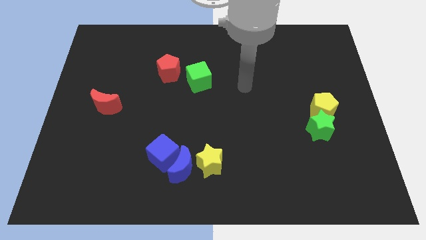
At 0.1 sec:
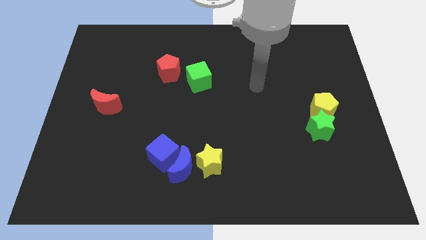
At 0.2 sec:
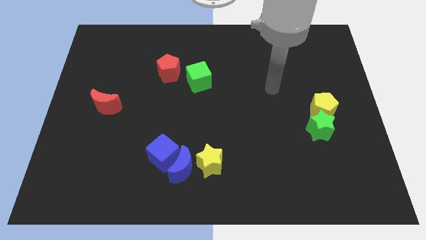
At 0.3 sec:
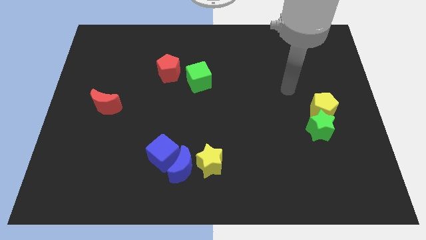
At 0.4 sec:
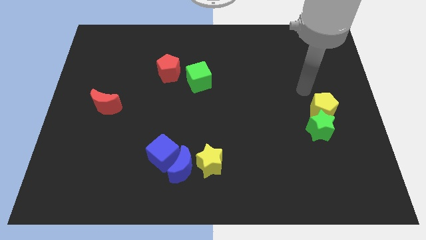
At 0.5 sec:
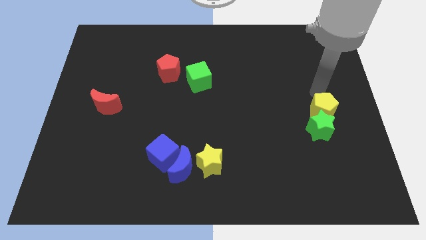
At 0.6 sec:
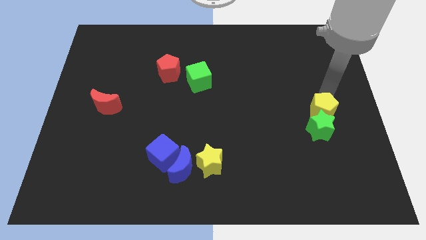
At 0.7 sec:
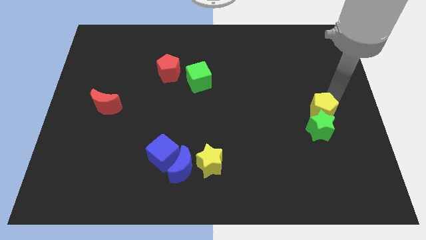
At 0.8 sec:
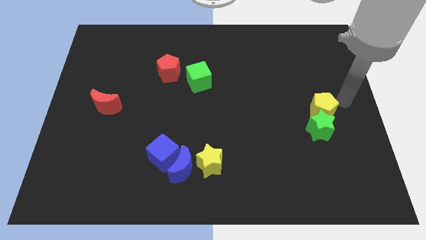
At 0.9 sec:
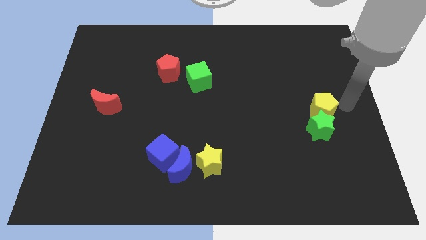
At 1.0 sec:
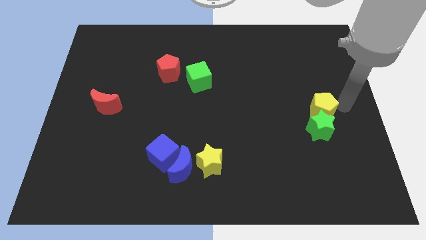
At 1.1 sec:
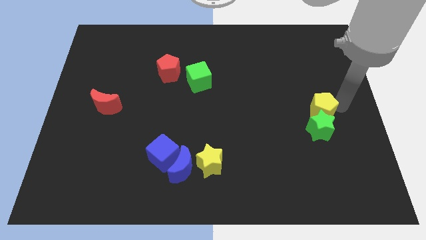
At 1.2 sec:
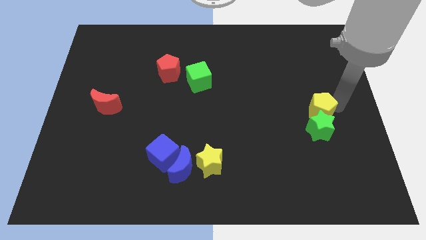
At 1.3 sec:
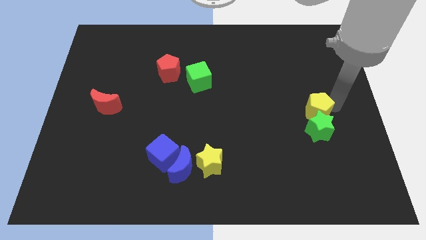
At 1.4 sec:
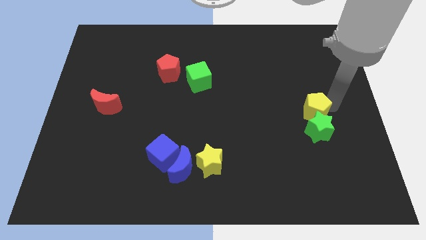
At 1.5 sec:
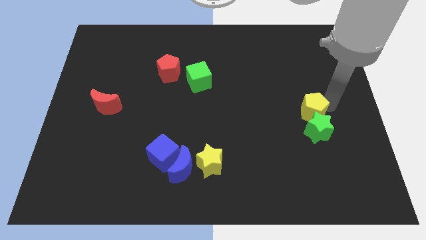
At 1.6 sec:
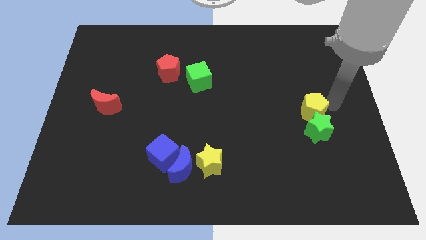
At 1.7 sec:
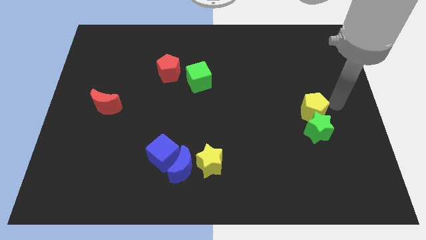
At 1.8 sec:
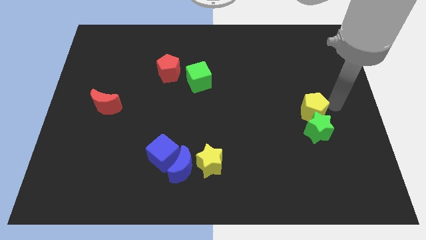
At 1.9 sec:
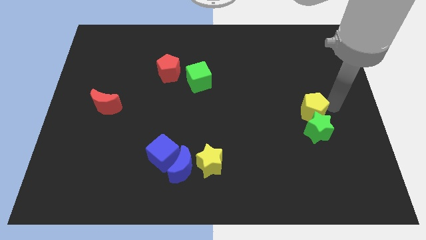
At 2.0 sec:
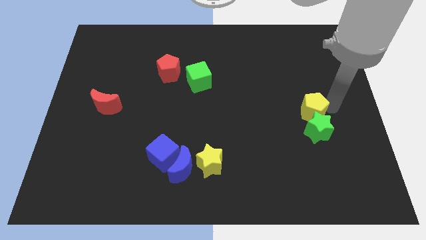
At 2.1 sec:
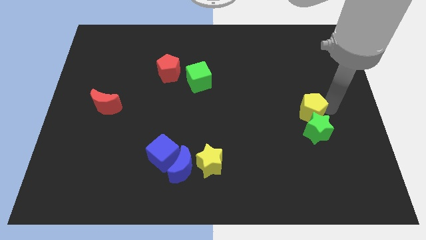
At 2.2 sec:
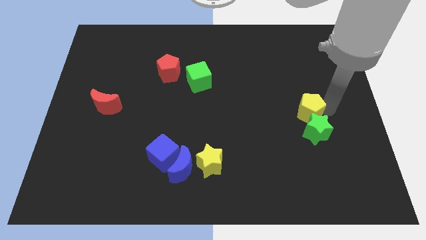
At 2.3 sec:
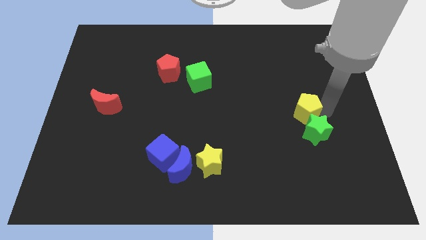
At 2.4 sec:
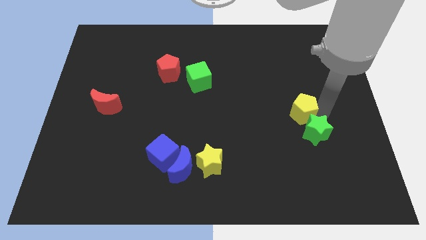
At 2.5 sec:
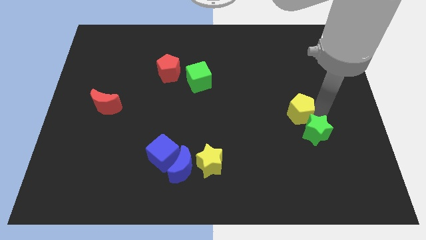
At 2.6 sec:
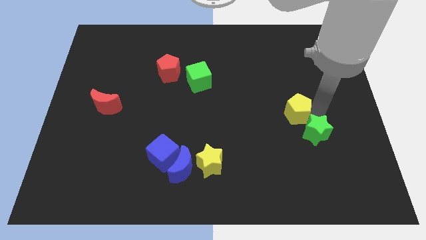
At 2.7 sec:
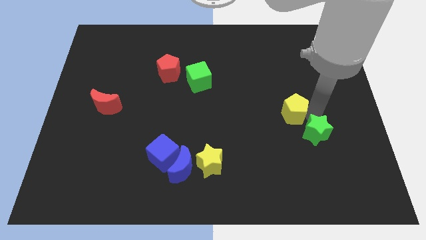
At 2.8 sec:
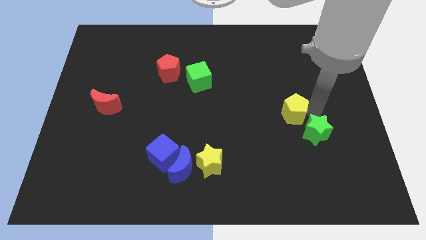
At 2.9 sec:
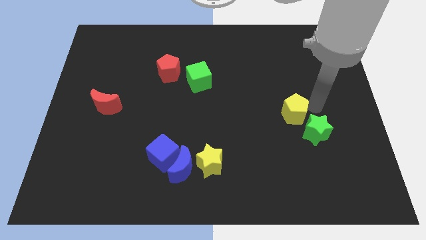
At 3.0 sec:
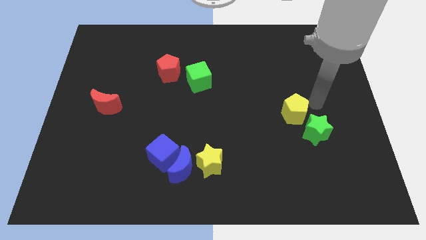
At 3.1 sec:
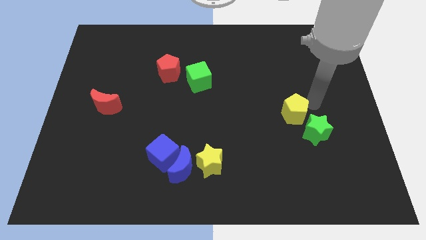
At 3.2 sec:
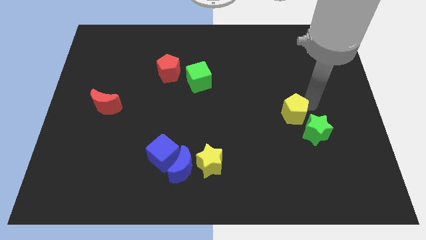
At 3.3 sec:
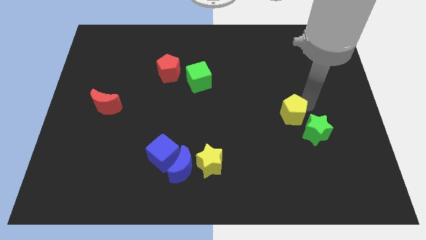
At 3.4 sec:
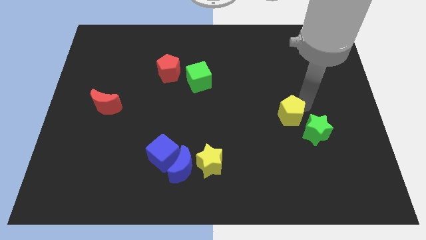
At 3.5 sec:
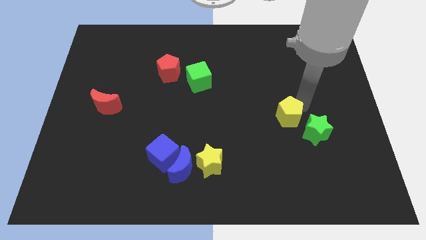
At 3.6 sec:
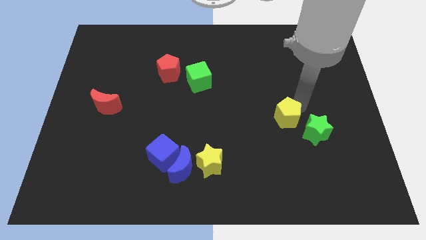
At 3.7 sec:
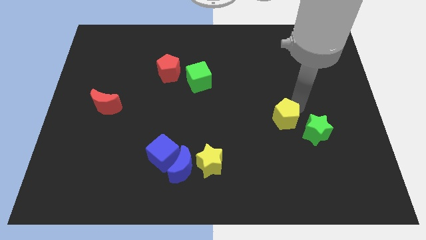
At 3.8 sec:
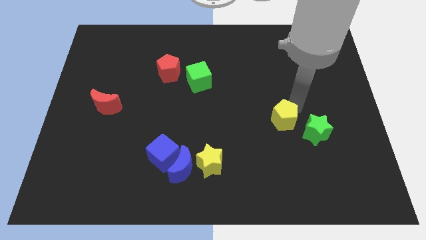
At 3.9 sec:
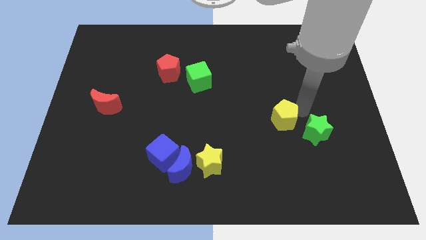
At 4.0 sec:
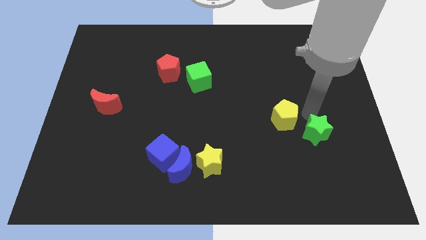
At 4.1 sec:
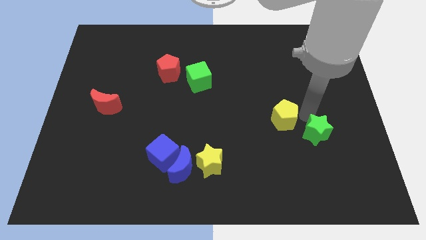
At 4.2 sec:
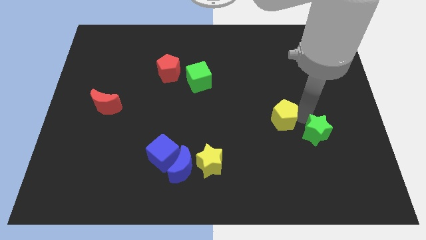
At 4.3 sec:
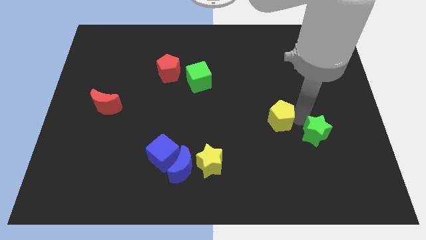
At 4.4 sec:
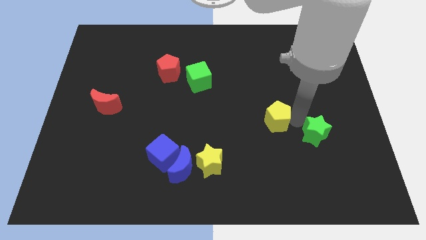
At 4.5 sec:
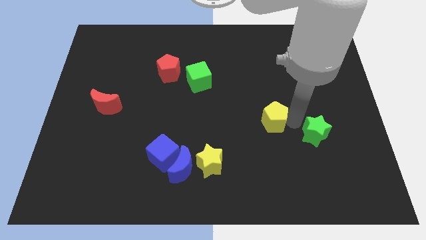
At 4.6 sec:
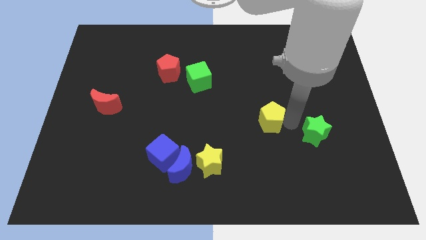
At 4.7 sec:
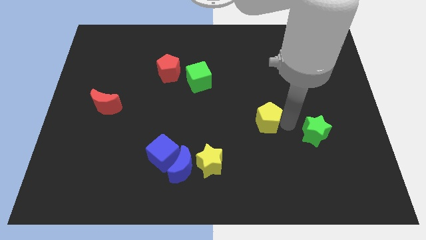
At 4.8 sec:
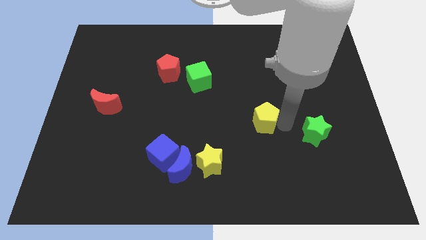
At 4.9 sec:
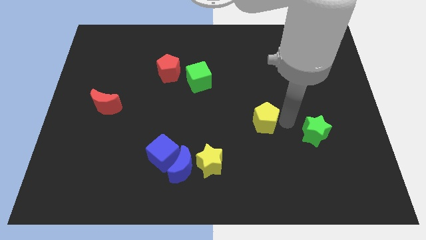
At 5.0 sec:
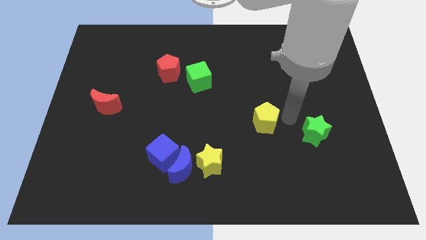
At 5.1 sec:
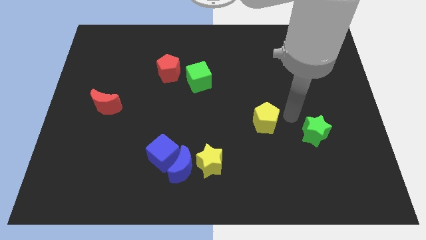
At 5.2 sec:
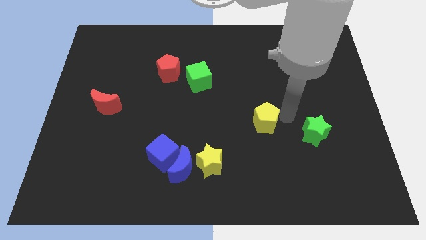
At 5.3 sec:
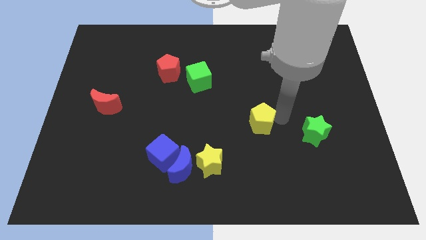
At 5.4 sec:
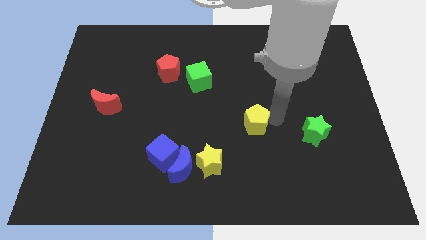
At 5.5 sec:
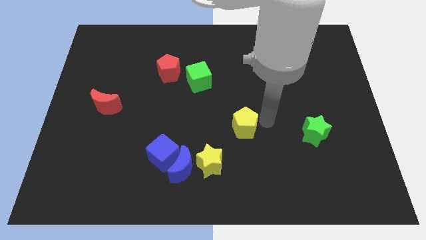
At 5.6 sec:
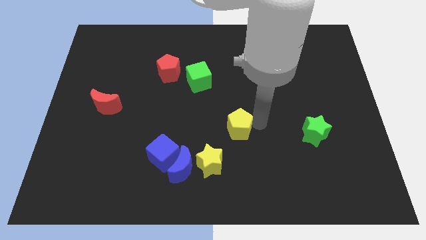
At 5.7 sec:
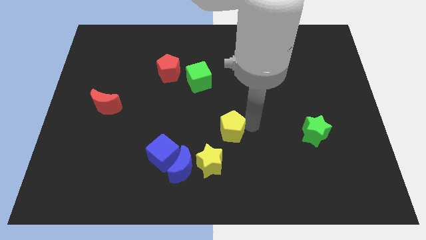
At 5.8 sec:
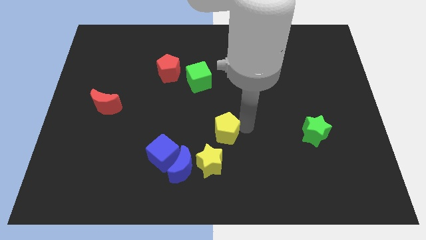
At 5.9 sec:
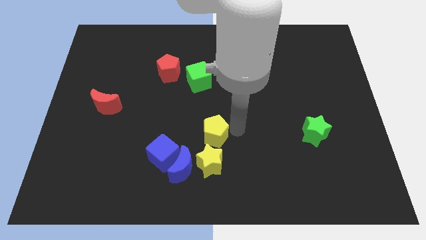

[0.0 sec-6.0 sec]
put the yellow pentagon to the top right side of the blue cube

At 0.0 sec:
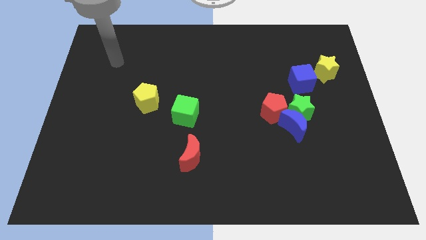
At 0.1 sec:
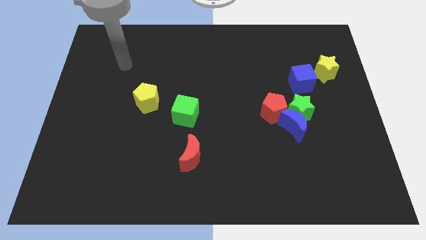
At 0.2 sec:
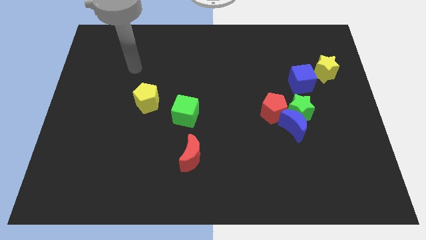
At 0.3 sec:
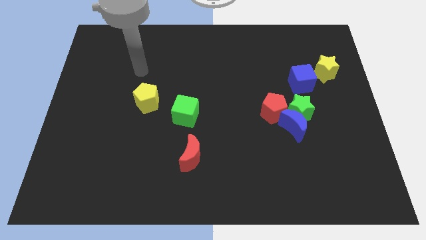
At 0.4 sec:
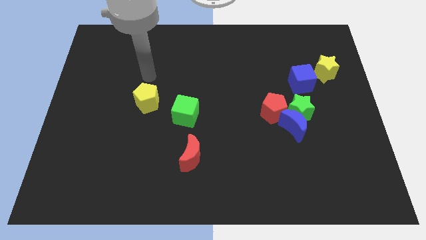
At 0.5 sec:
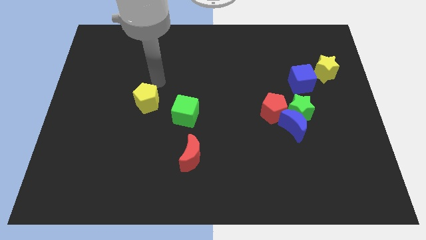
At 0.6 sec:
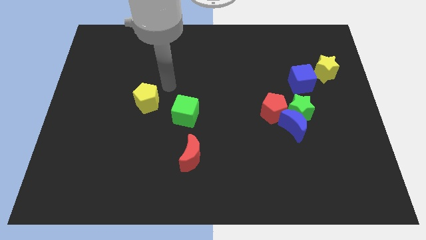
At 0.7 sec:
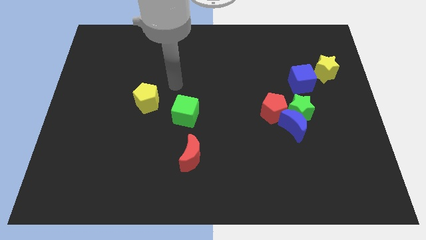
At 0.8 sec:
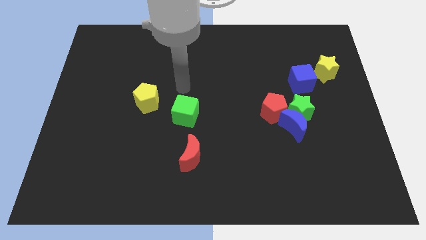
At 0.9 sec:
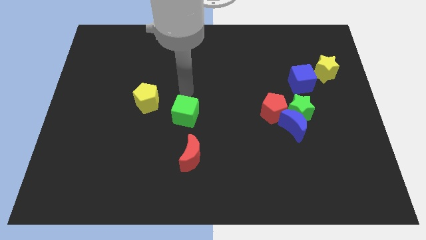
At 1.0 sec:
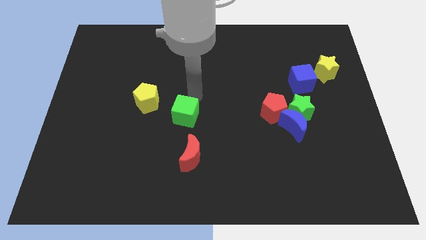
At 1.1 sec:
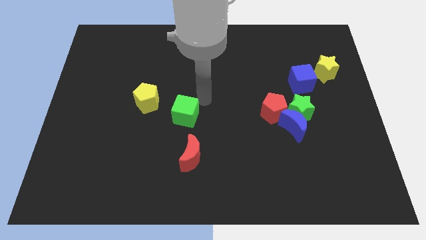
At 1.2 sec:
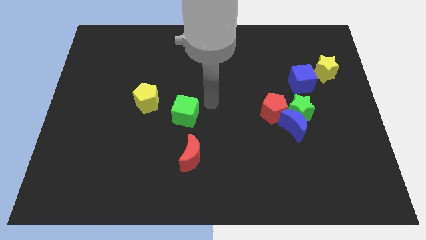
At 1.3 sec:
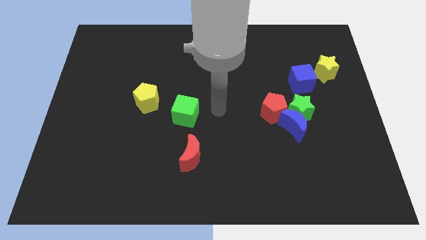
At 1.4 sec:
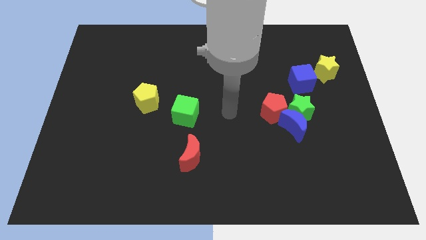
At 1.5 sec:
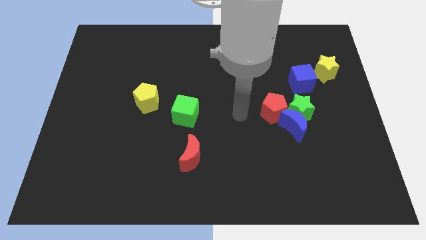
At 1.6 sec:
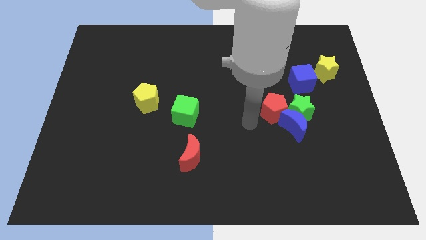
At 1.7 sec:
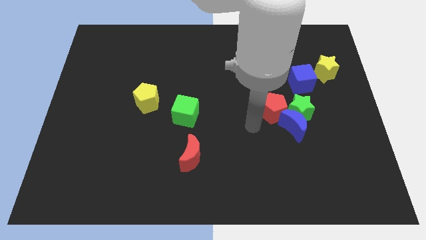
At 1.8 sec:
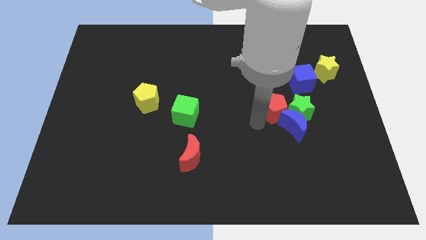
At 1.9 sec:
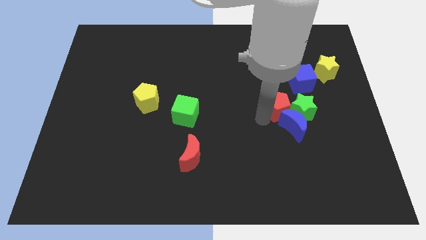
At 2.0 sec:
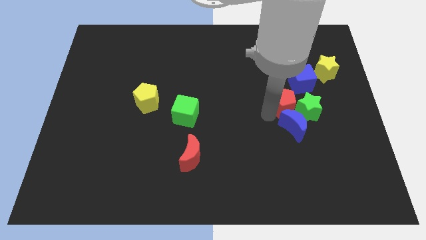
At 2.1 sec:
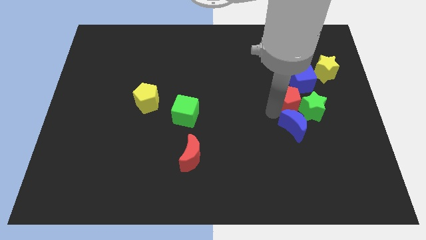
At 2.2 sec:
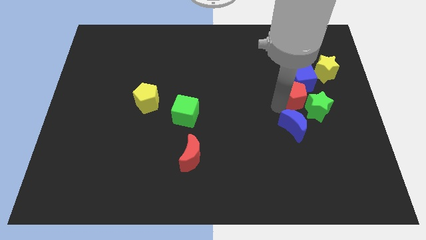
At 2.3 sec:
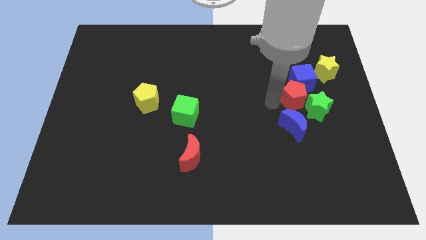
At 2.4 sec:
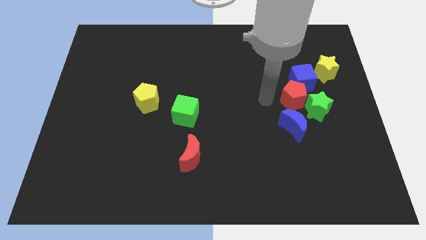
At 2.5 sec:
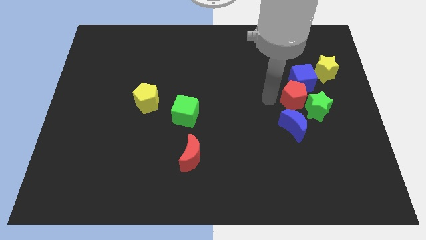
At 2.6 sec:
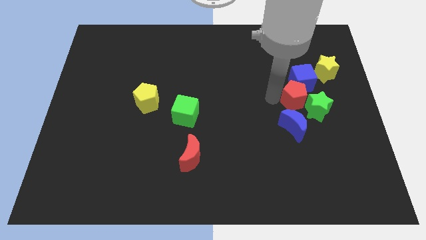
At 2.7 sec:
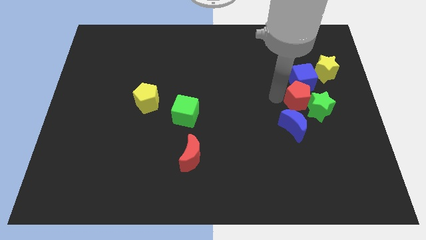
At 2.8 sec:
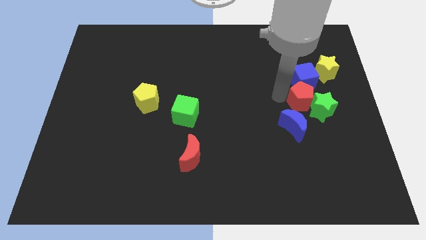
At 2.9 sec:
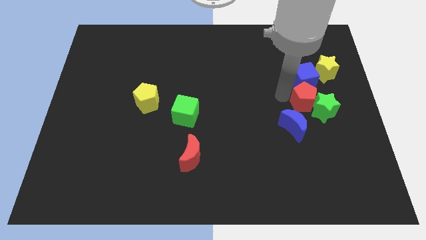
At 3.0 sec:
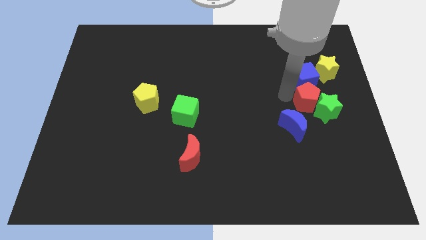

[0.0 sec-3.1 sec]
put the red pentagon to the bottom right of the blue cube
